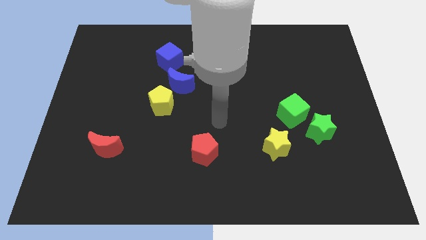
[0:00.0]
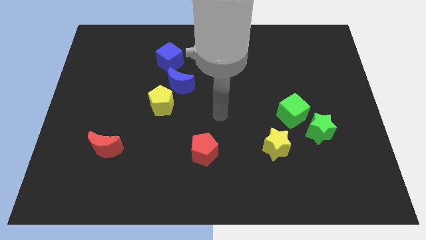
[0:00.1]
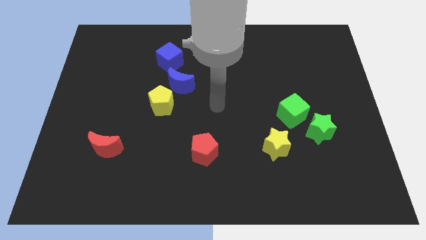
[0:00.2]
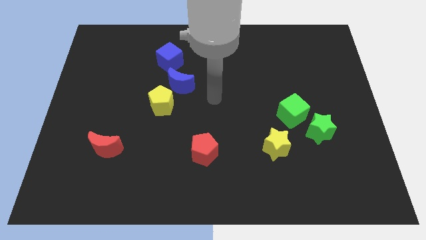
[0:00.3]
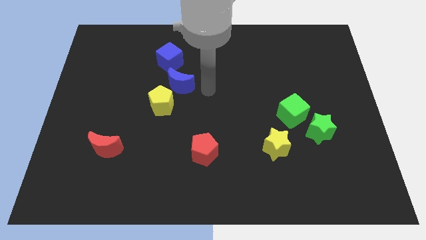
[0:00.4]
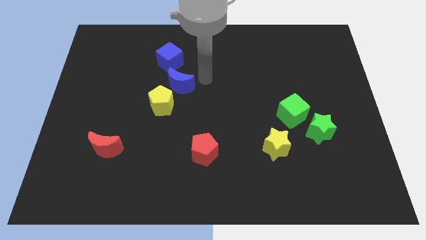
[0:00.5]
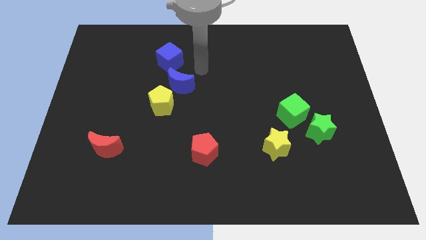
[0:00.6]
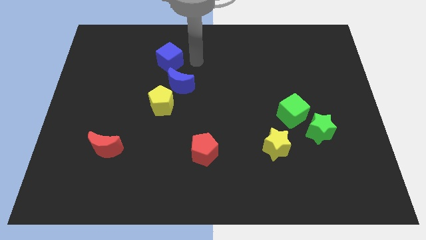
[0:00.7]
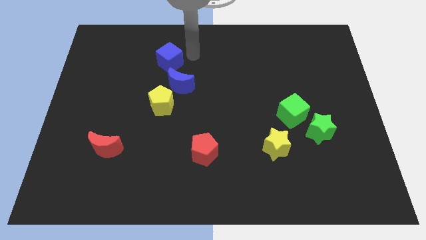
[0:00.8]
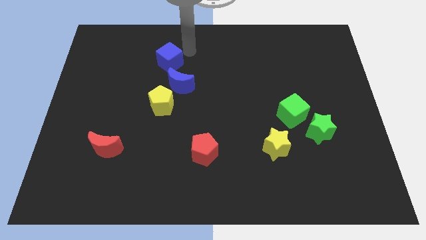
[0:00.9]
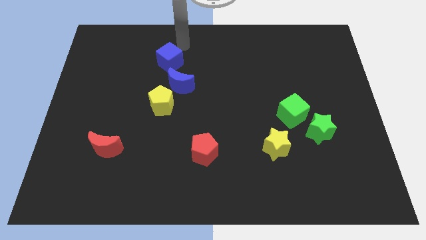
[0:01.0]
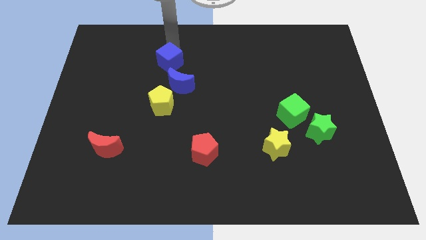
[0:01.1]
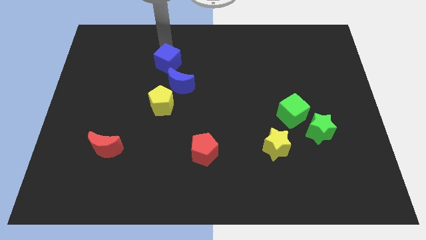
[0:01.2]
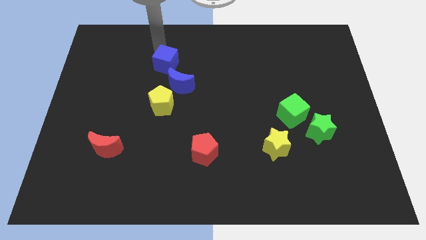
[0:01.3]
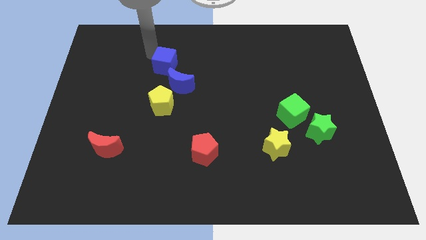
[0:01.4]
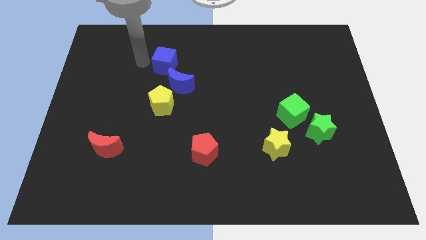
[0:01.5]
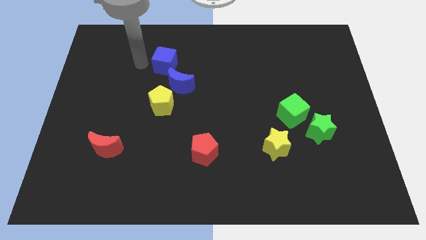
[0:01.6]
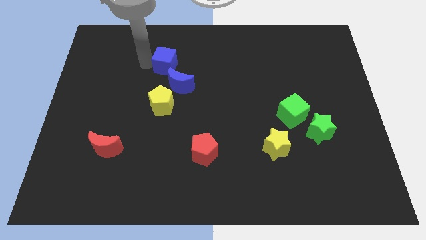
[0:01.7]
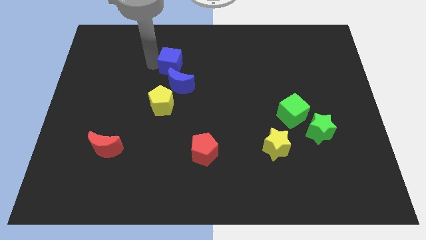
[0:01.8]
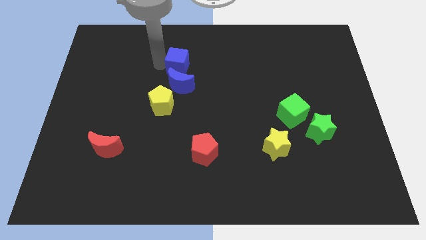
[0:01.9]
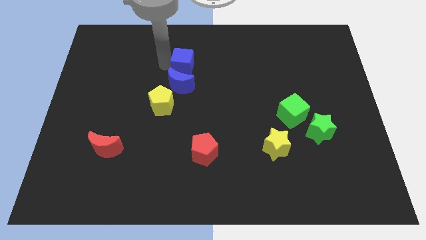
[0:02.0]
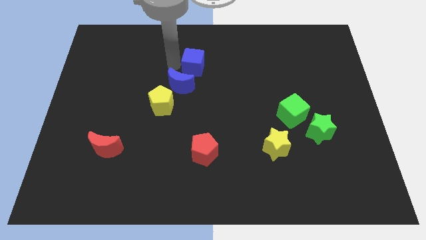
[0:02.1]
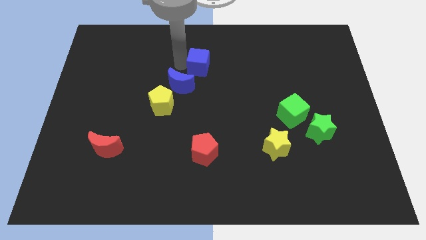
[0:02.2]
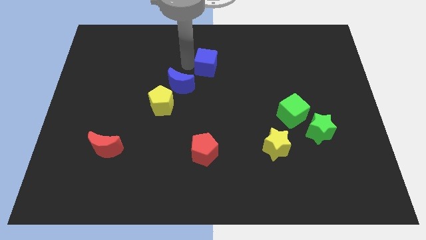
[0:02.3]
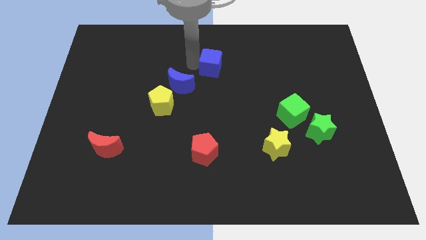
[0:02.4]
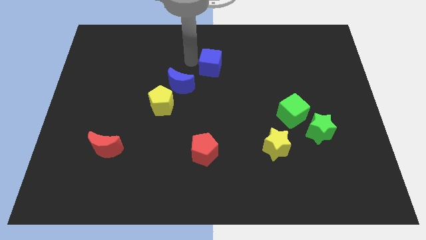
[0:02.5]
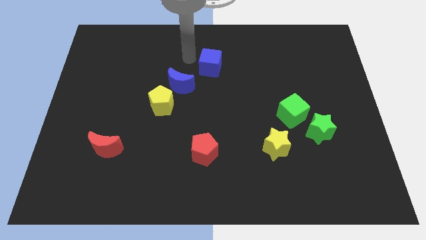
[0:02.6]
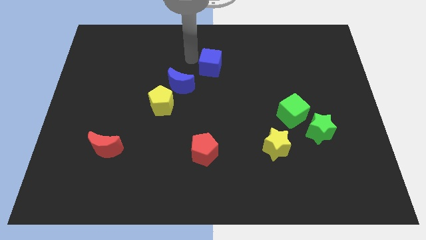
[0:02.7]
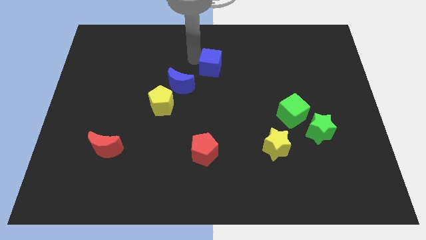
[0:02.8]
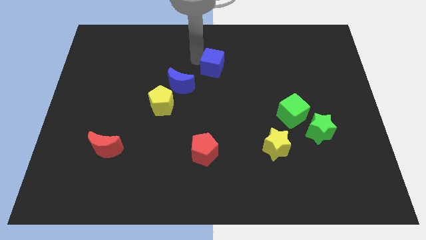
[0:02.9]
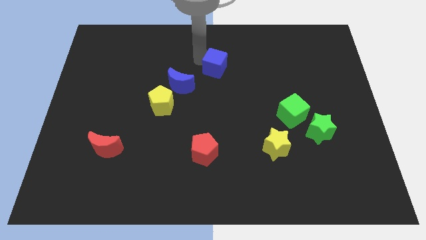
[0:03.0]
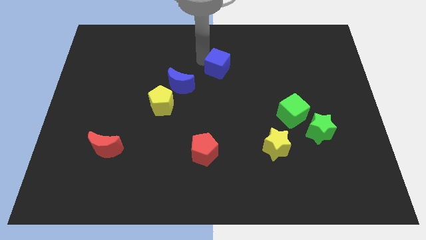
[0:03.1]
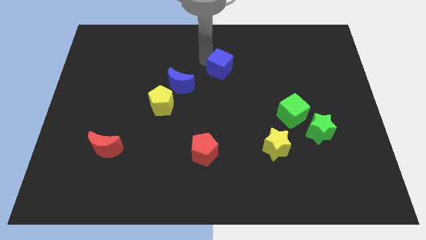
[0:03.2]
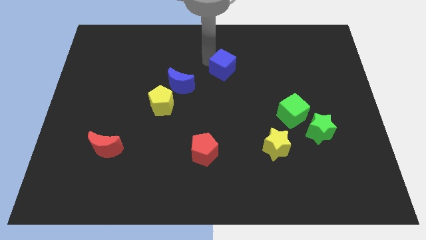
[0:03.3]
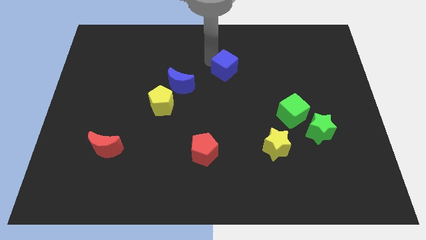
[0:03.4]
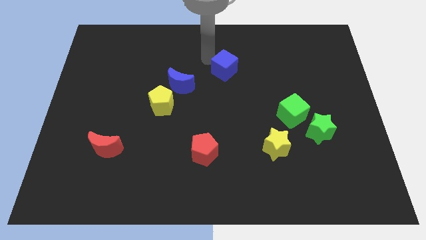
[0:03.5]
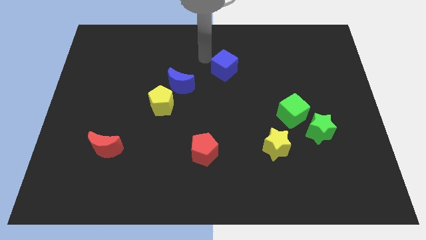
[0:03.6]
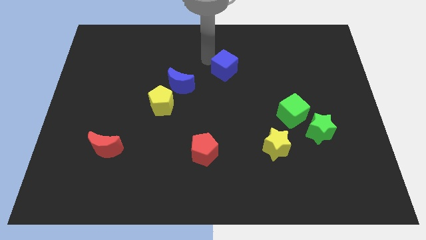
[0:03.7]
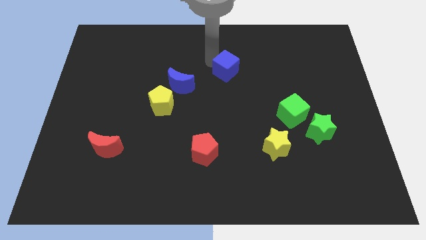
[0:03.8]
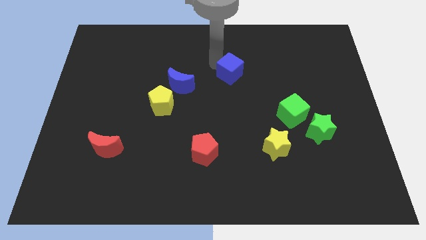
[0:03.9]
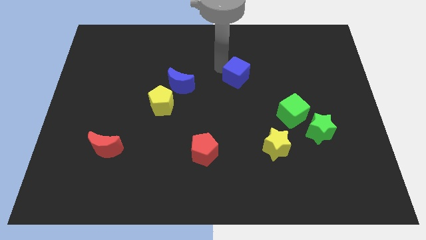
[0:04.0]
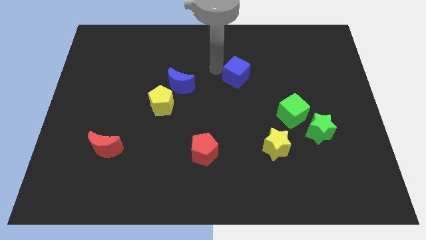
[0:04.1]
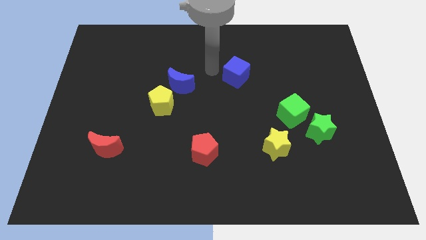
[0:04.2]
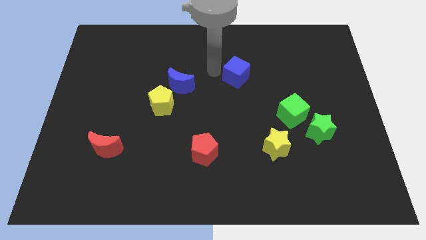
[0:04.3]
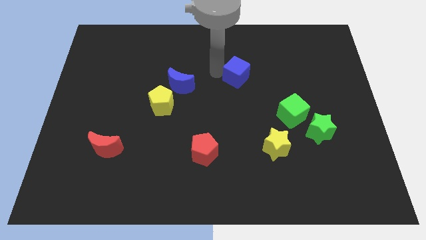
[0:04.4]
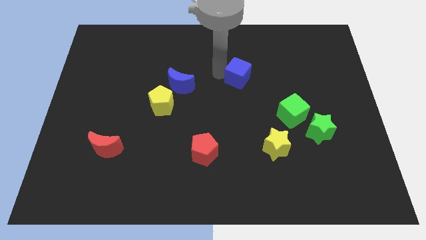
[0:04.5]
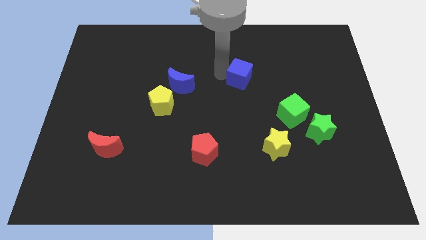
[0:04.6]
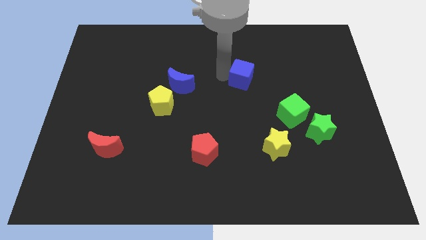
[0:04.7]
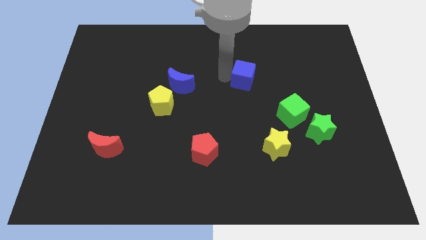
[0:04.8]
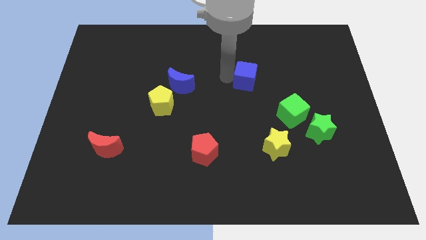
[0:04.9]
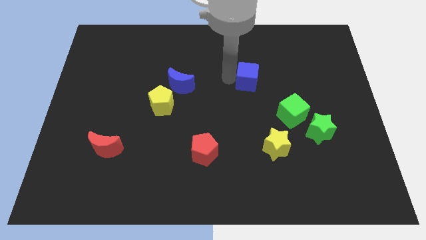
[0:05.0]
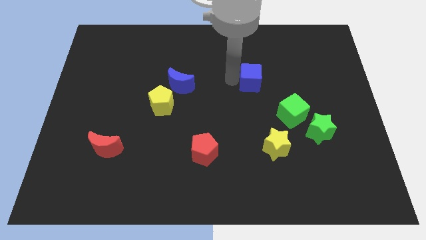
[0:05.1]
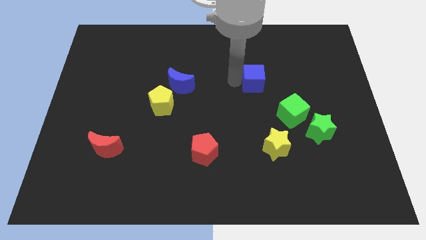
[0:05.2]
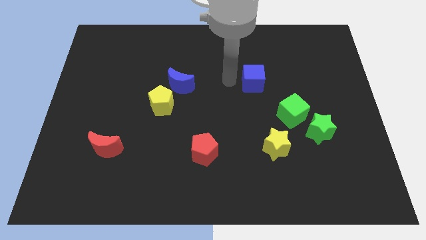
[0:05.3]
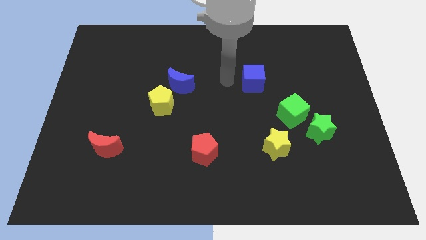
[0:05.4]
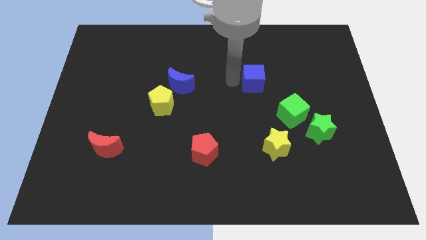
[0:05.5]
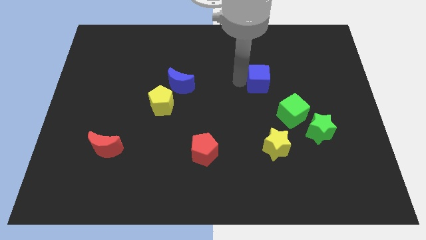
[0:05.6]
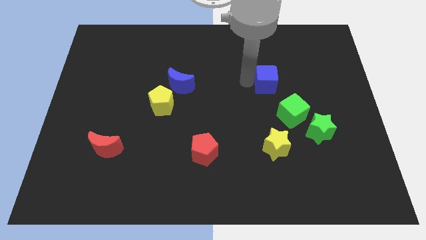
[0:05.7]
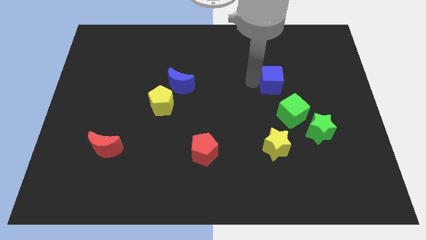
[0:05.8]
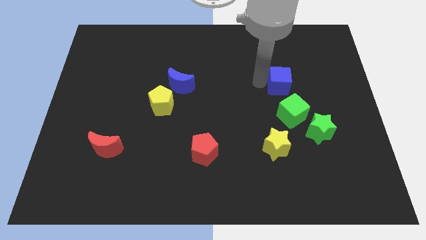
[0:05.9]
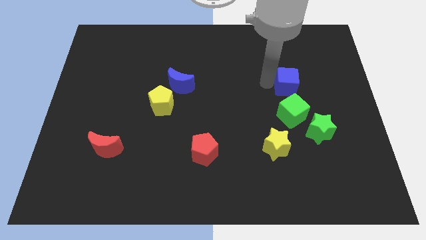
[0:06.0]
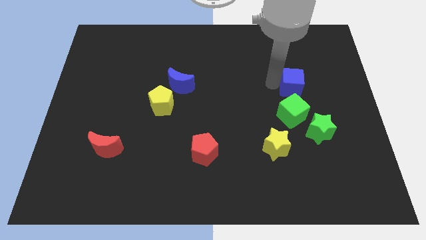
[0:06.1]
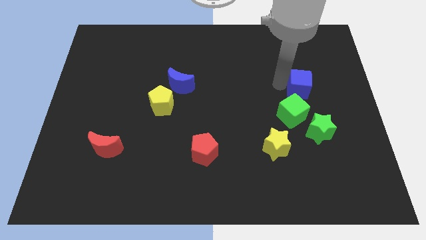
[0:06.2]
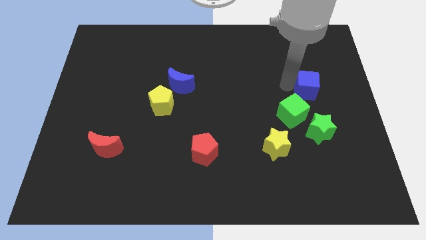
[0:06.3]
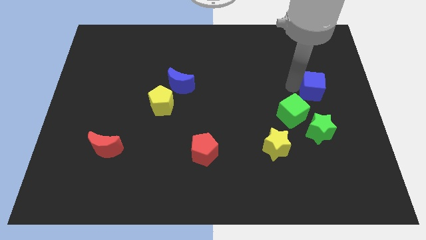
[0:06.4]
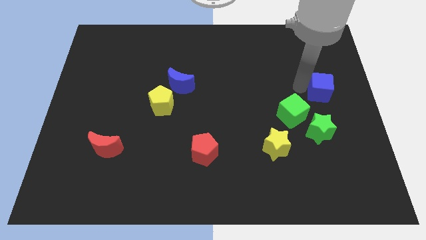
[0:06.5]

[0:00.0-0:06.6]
put the blue cube to the right side

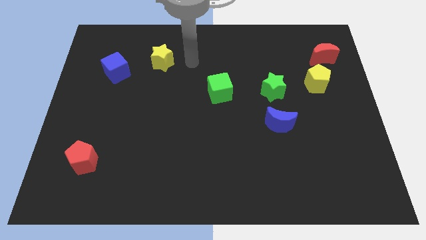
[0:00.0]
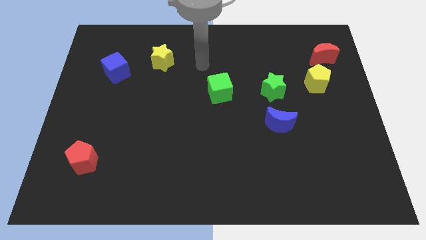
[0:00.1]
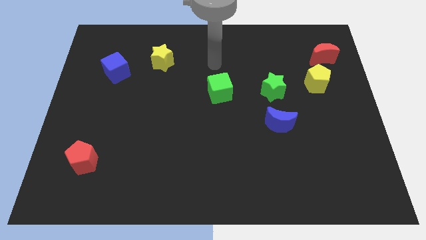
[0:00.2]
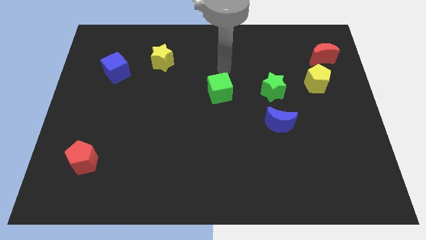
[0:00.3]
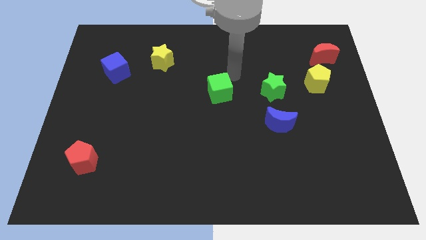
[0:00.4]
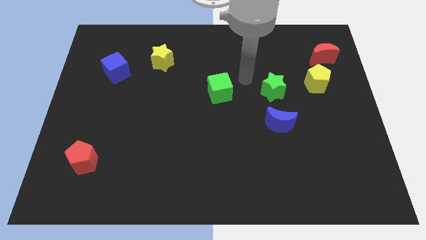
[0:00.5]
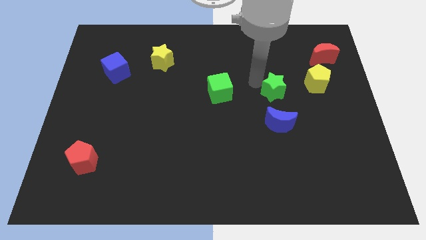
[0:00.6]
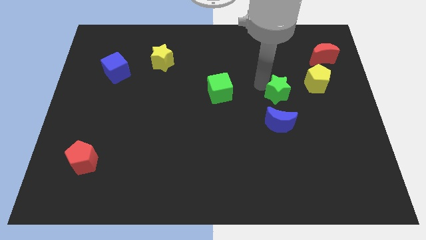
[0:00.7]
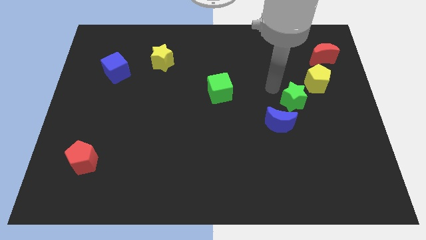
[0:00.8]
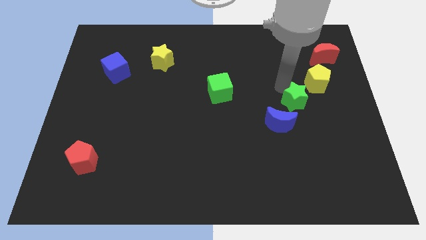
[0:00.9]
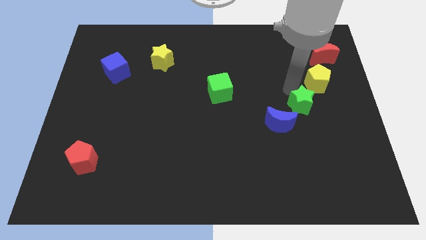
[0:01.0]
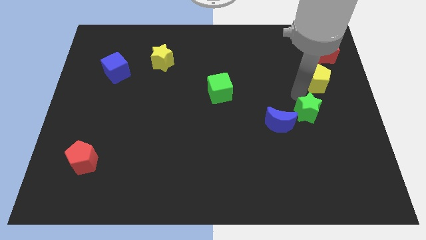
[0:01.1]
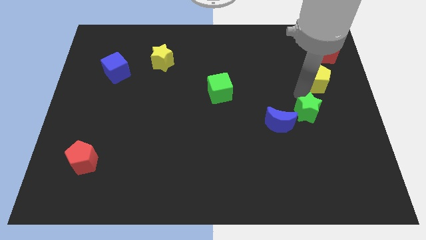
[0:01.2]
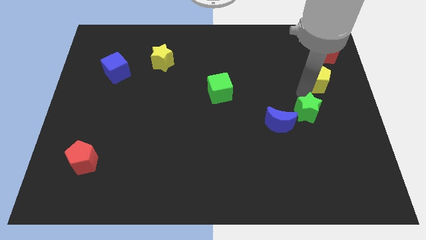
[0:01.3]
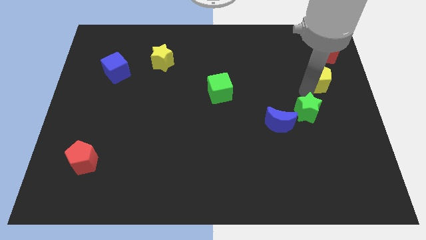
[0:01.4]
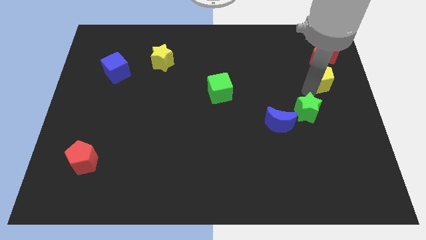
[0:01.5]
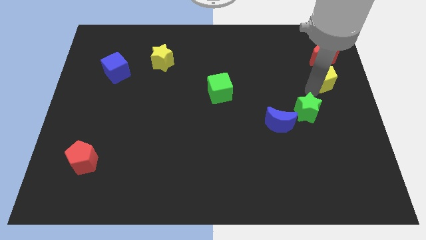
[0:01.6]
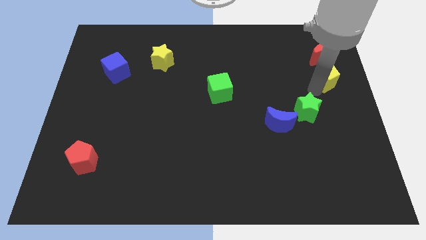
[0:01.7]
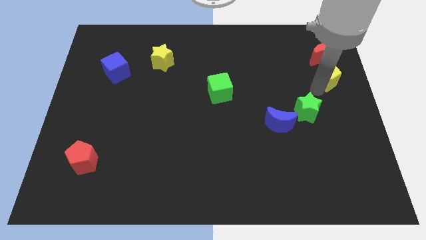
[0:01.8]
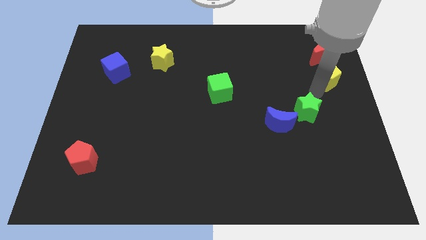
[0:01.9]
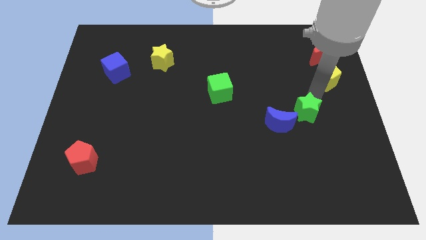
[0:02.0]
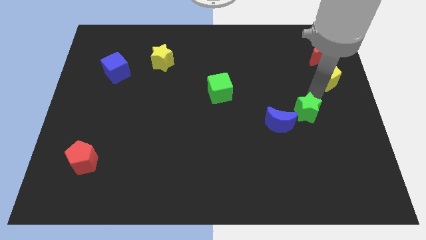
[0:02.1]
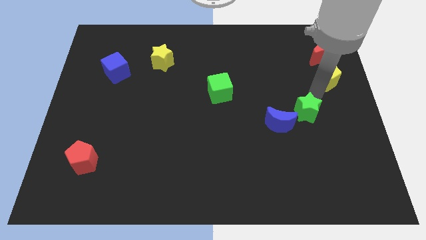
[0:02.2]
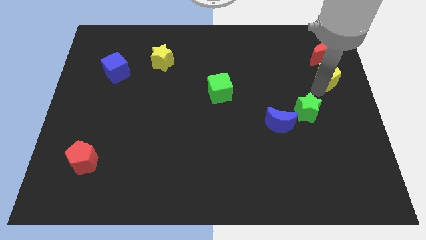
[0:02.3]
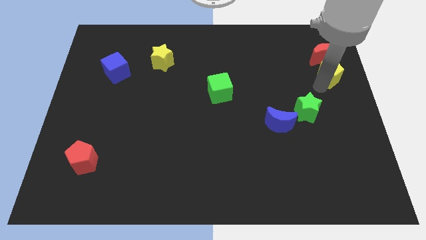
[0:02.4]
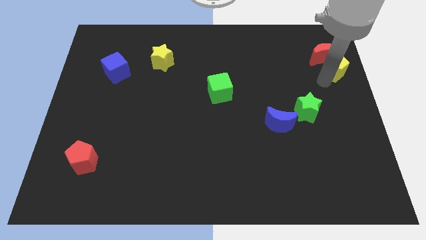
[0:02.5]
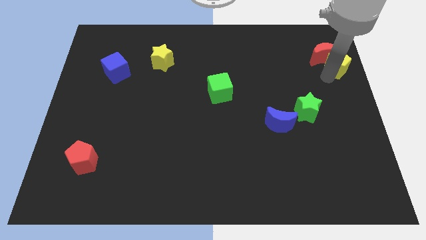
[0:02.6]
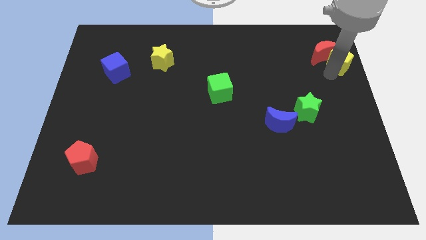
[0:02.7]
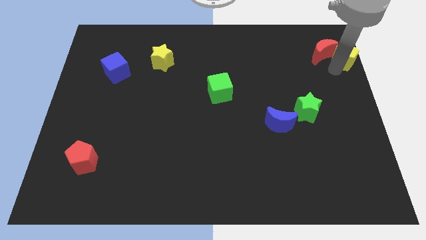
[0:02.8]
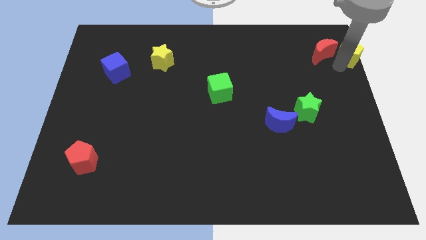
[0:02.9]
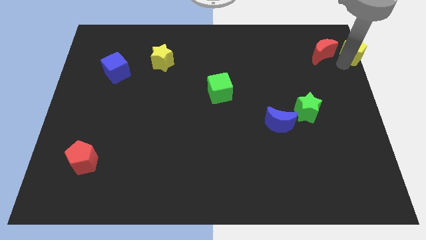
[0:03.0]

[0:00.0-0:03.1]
slide the yellow pentagon to the upper right corner
